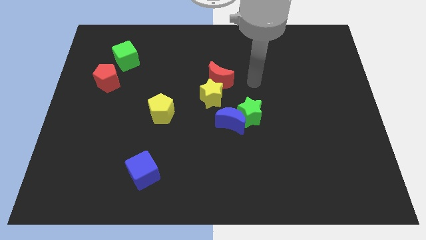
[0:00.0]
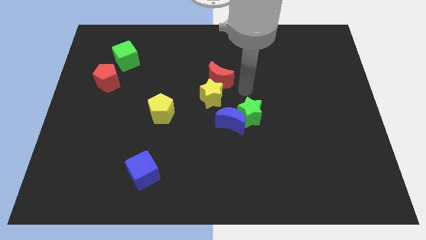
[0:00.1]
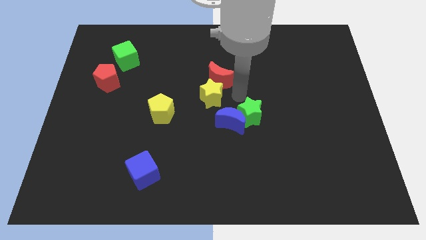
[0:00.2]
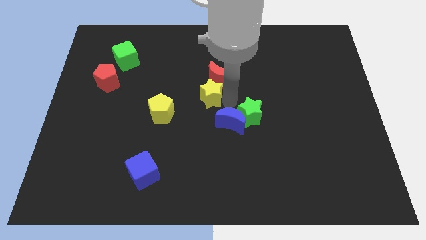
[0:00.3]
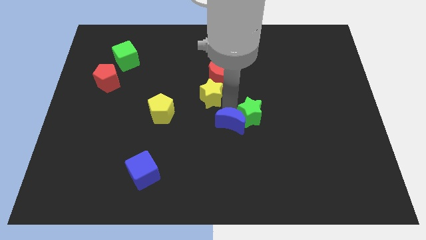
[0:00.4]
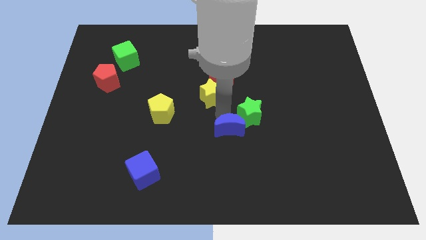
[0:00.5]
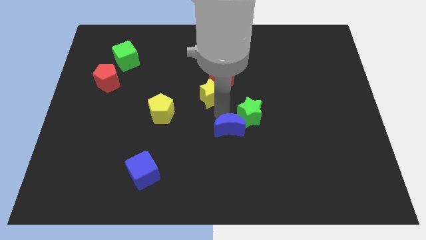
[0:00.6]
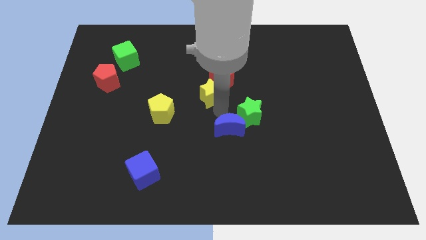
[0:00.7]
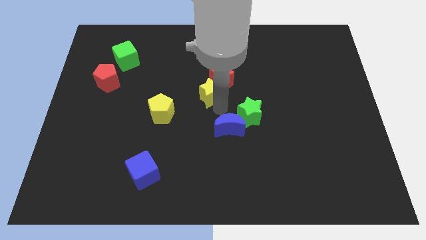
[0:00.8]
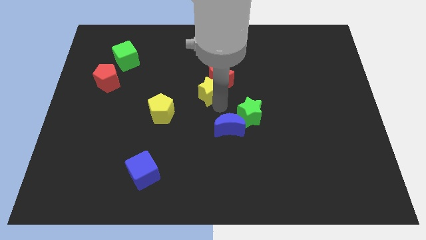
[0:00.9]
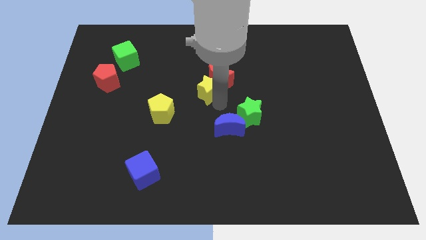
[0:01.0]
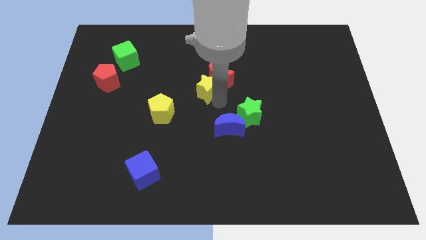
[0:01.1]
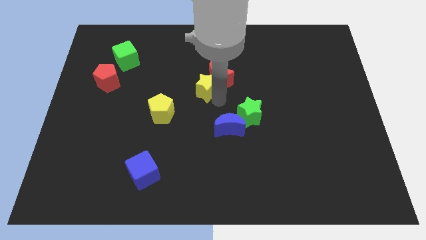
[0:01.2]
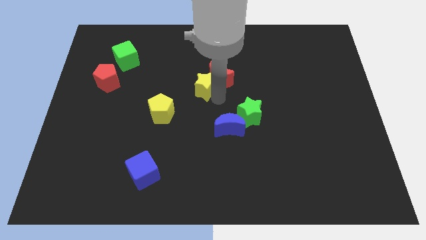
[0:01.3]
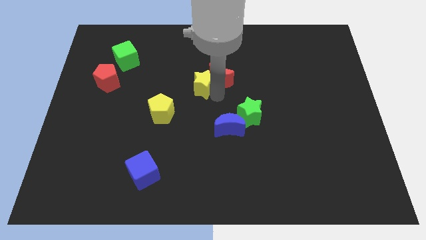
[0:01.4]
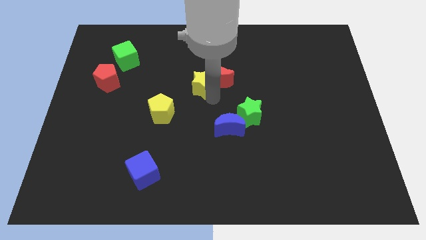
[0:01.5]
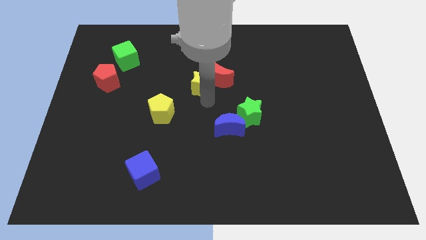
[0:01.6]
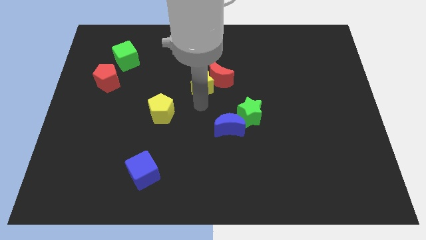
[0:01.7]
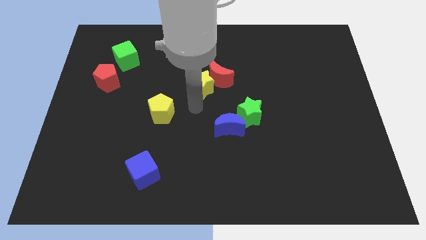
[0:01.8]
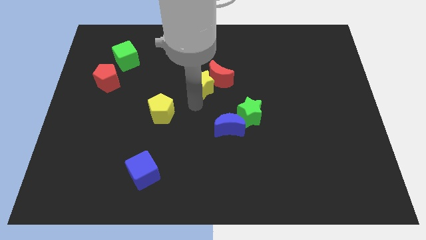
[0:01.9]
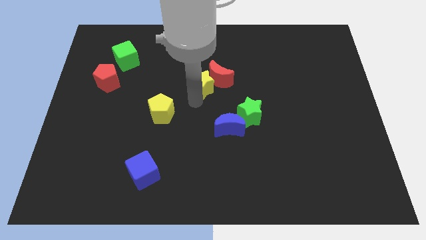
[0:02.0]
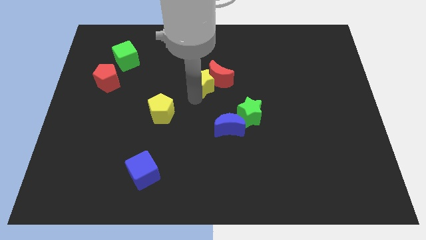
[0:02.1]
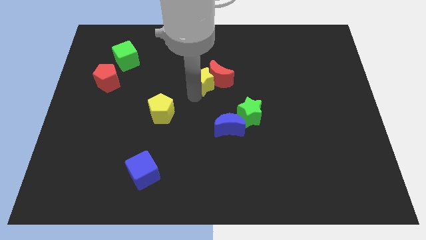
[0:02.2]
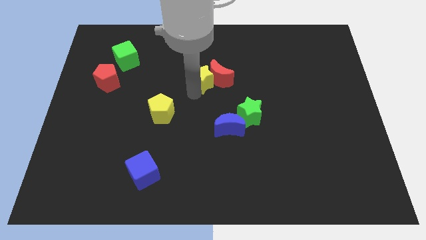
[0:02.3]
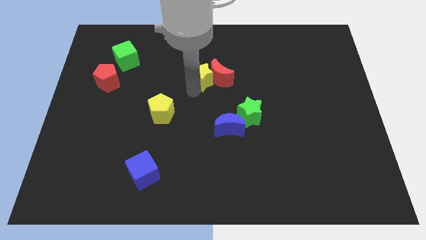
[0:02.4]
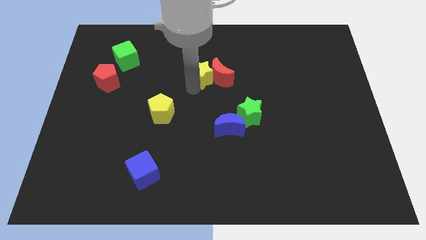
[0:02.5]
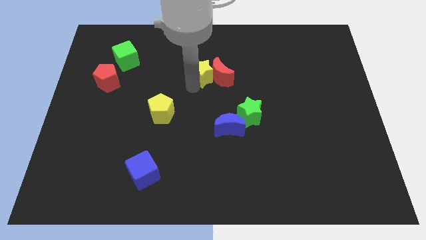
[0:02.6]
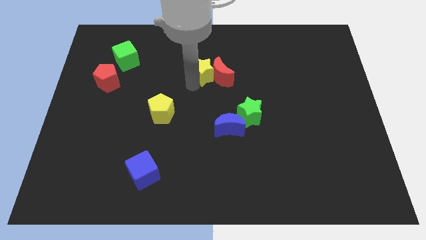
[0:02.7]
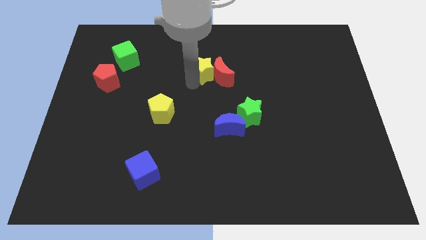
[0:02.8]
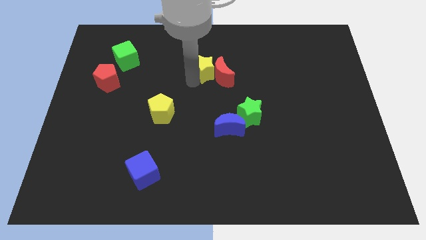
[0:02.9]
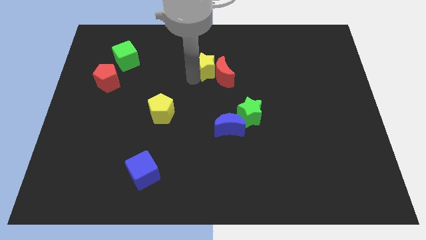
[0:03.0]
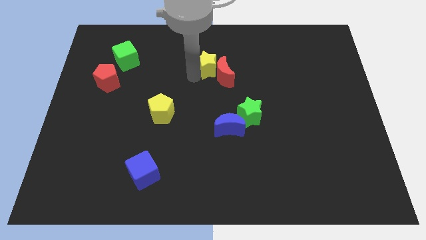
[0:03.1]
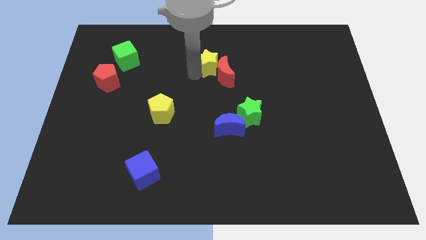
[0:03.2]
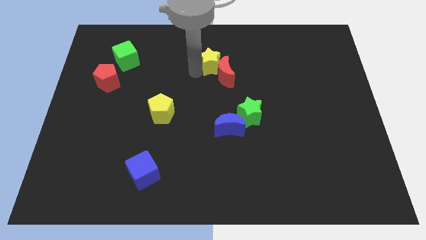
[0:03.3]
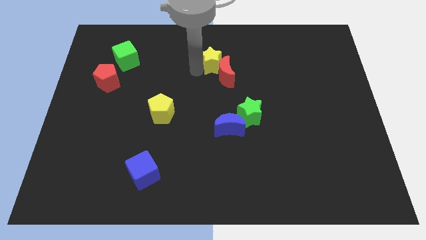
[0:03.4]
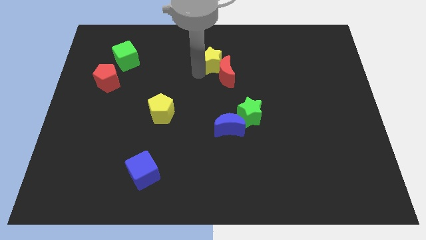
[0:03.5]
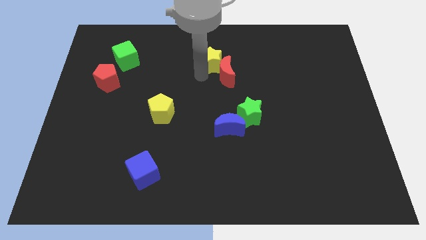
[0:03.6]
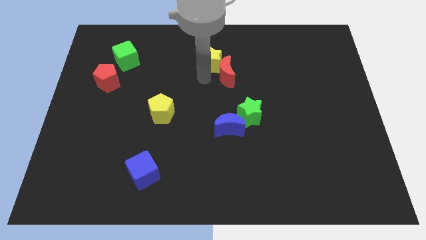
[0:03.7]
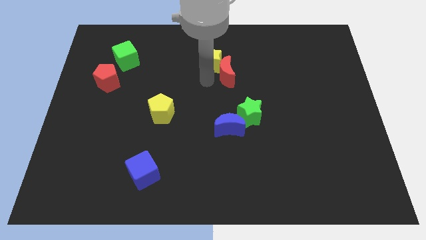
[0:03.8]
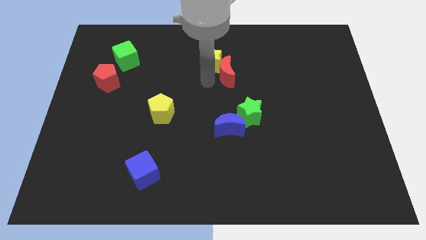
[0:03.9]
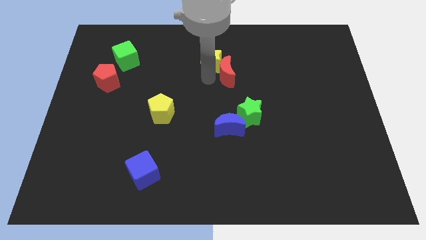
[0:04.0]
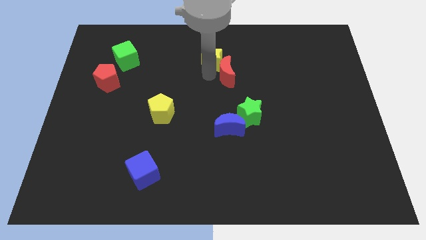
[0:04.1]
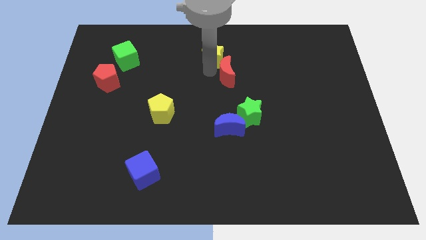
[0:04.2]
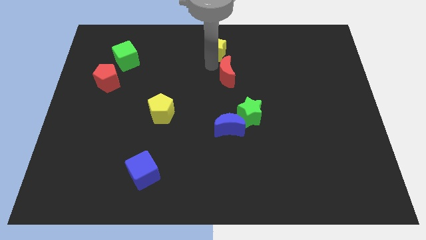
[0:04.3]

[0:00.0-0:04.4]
push the yellow star to the towards your base

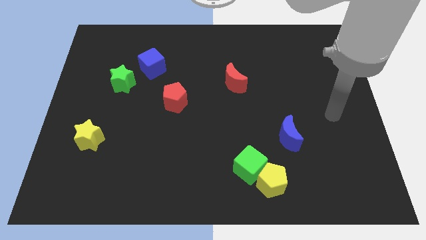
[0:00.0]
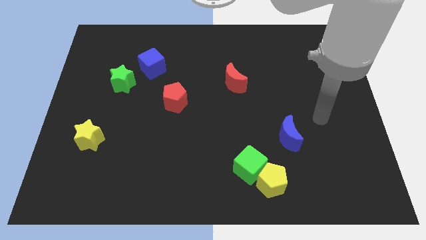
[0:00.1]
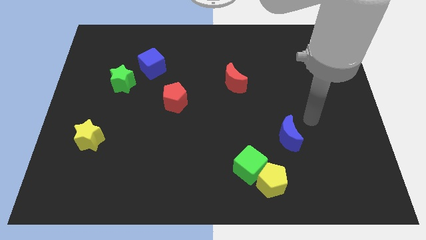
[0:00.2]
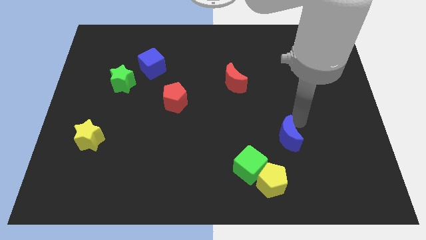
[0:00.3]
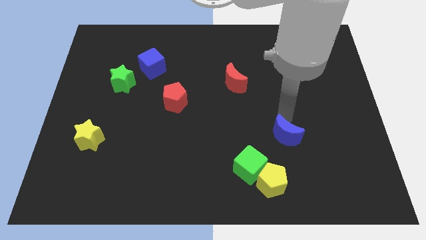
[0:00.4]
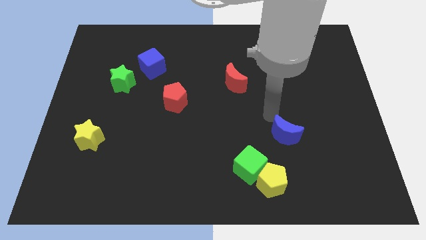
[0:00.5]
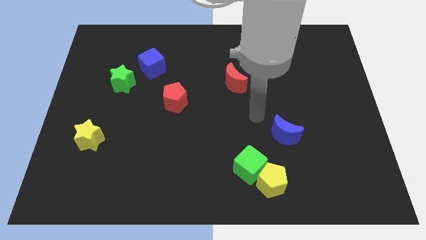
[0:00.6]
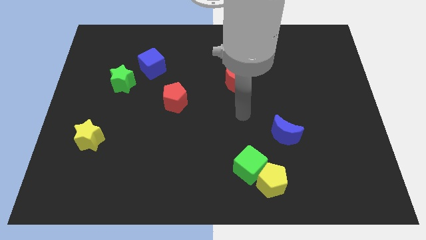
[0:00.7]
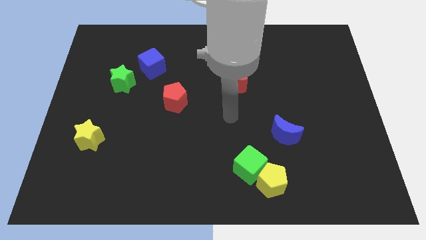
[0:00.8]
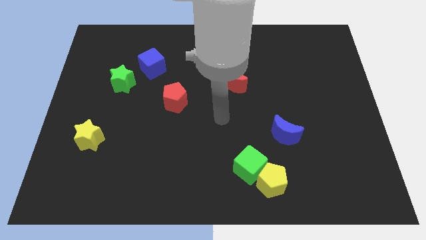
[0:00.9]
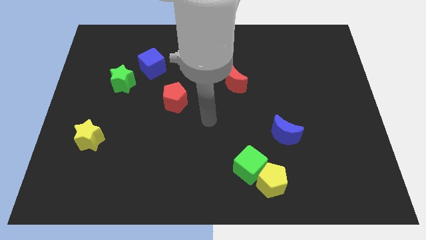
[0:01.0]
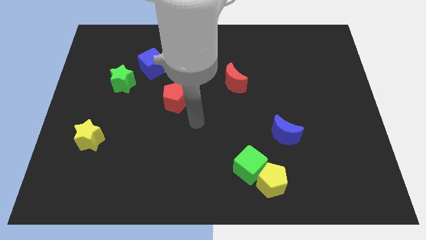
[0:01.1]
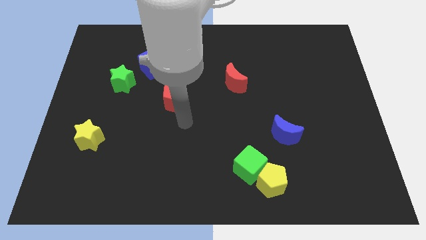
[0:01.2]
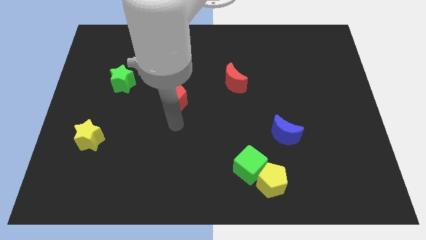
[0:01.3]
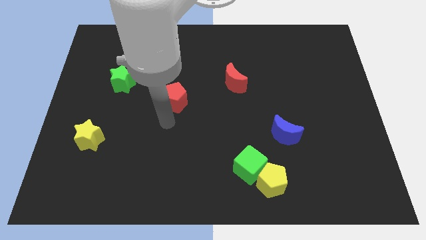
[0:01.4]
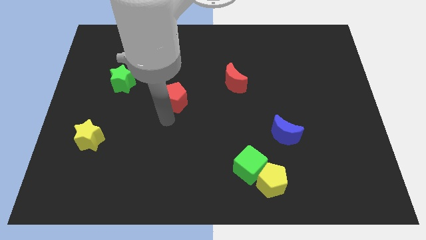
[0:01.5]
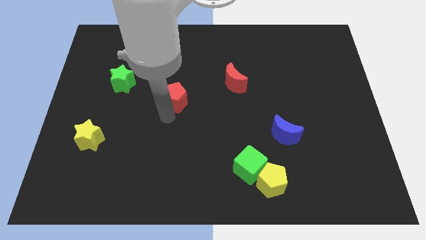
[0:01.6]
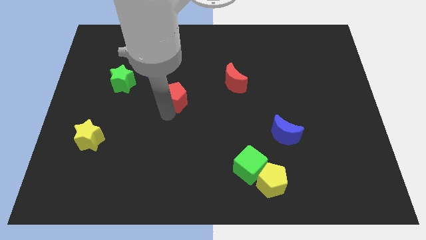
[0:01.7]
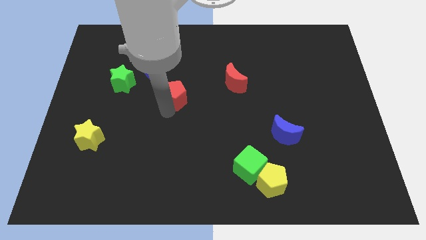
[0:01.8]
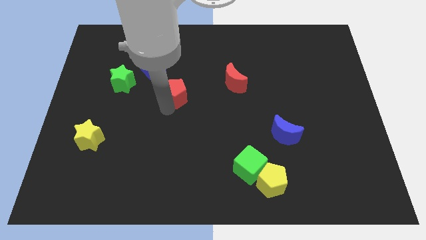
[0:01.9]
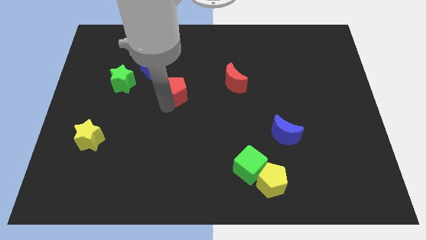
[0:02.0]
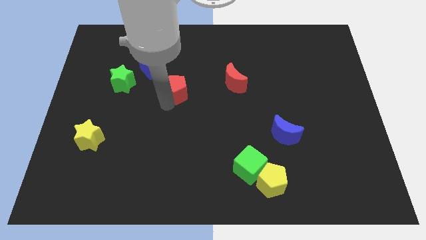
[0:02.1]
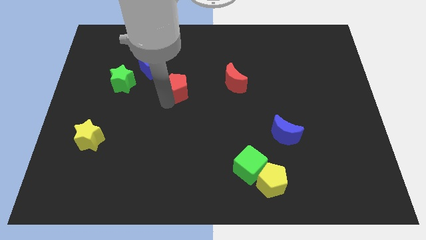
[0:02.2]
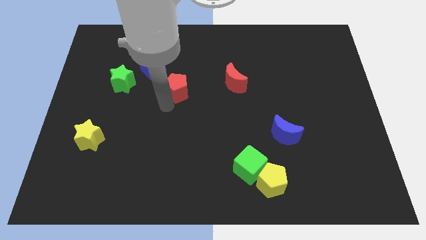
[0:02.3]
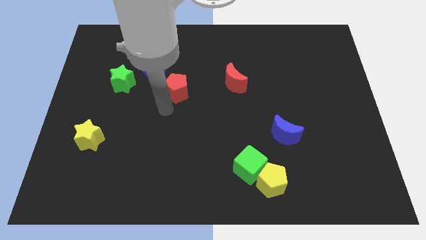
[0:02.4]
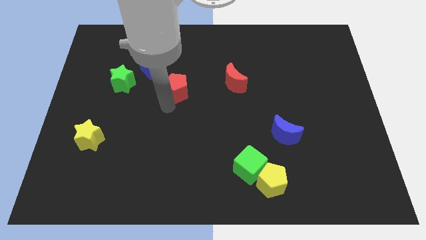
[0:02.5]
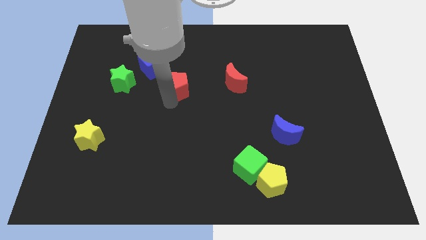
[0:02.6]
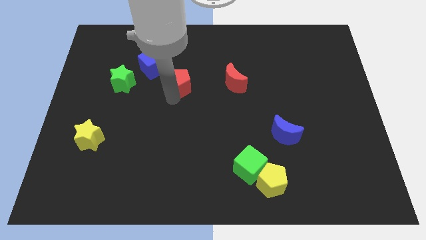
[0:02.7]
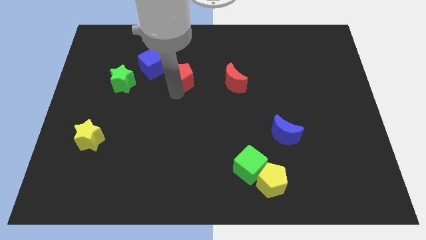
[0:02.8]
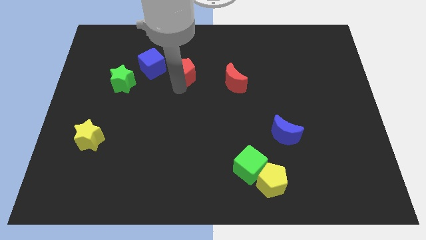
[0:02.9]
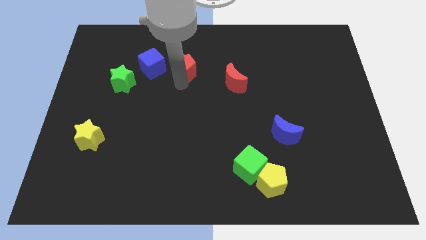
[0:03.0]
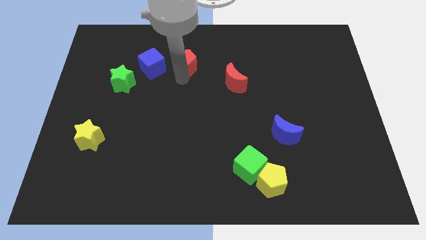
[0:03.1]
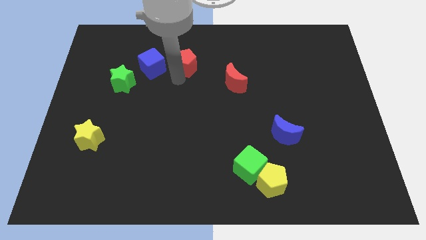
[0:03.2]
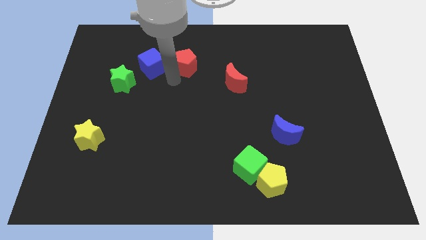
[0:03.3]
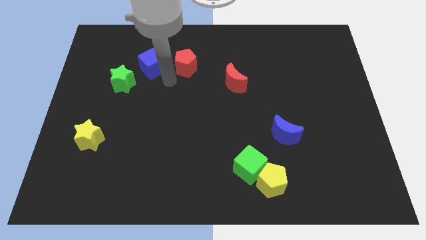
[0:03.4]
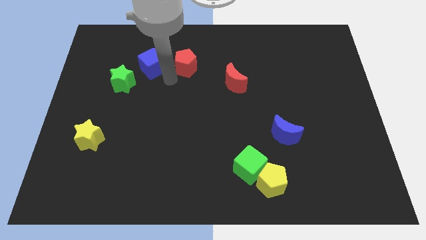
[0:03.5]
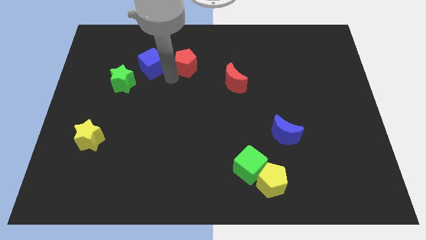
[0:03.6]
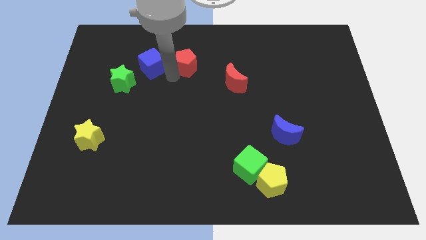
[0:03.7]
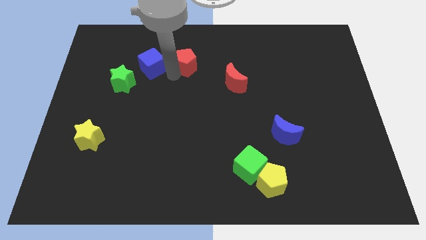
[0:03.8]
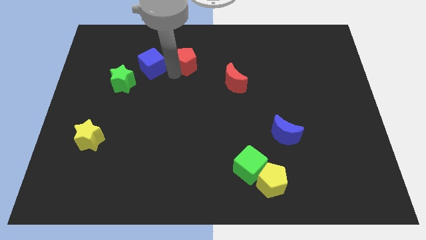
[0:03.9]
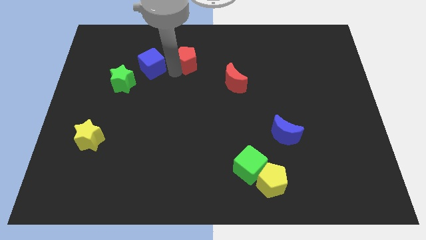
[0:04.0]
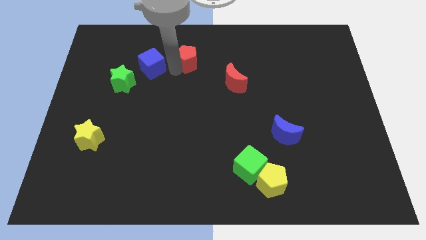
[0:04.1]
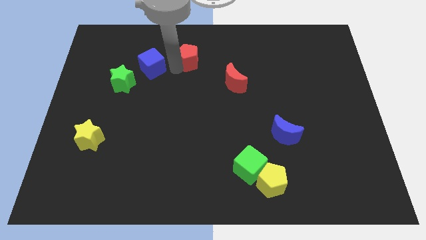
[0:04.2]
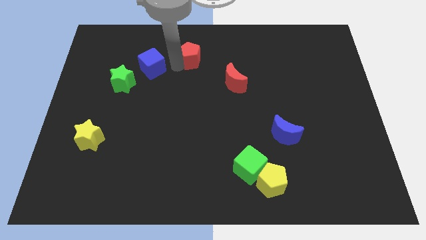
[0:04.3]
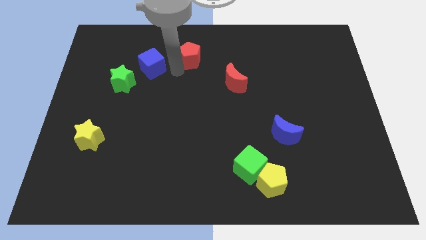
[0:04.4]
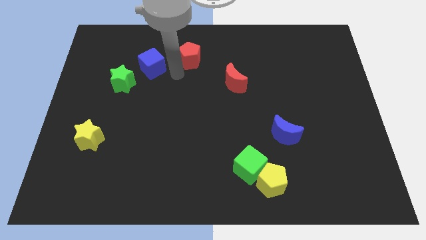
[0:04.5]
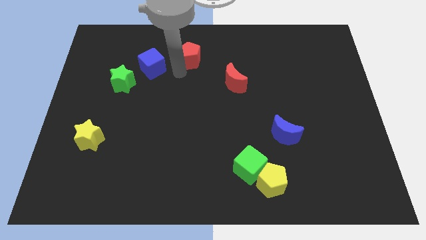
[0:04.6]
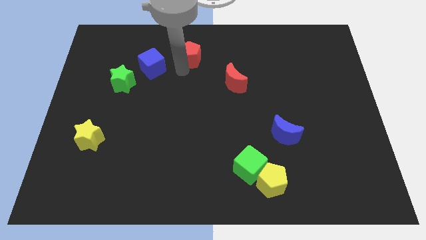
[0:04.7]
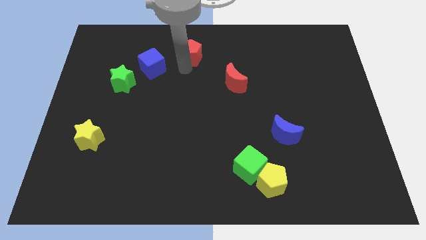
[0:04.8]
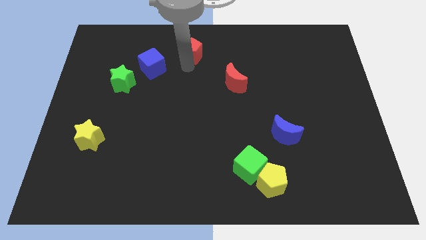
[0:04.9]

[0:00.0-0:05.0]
put the red pentagon to the towards your base
